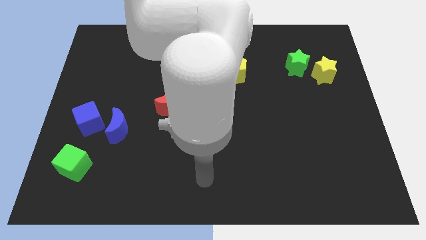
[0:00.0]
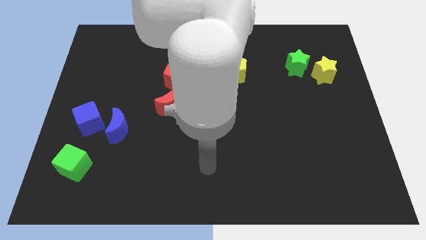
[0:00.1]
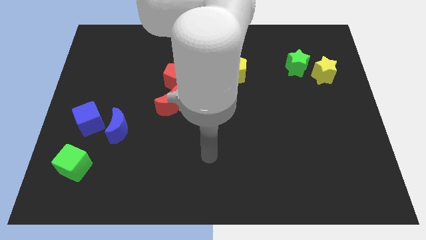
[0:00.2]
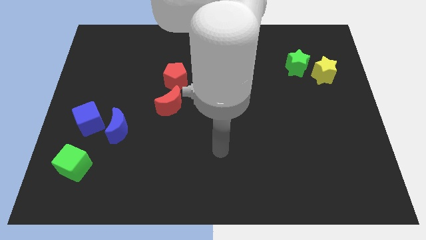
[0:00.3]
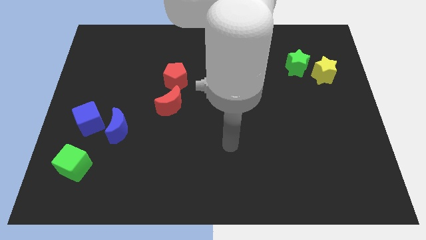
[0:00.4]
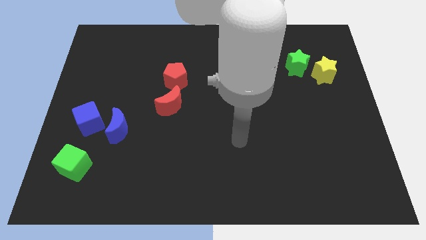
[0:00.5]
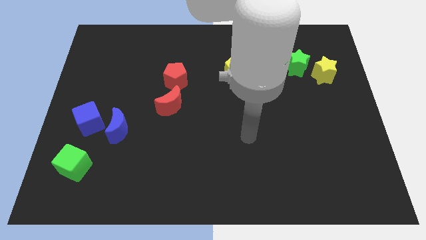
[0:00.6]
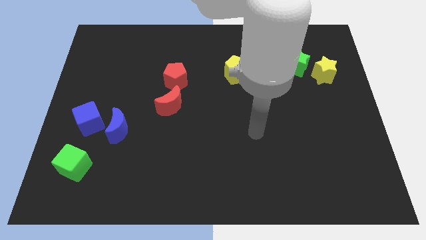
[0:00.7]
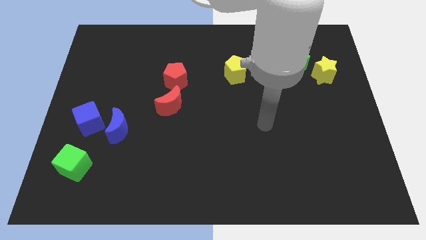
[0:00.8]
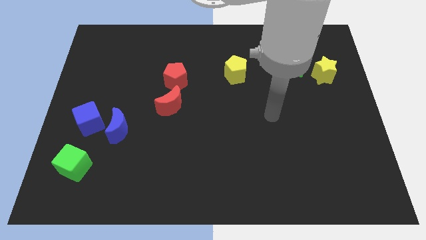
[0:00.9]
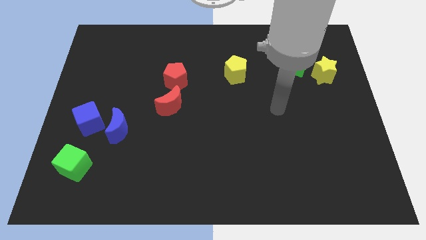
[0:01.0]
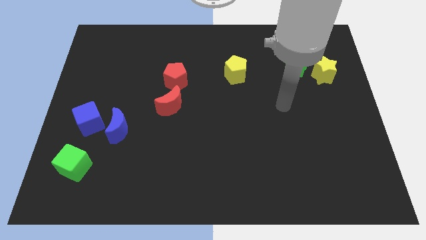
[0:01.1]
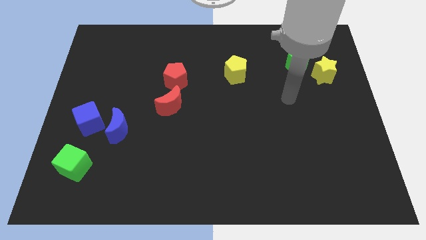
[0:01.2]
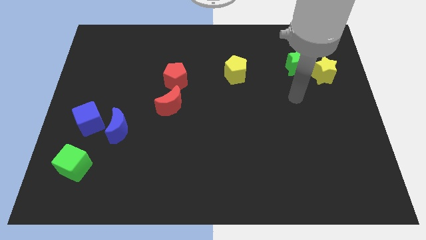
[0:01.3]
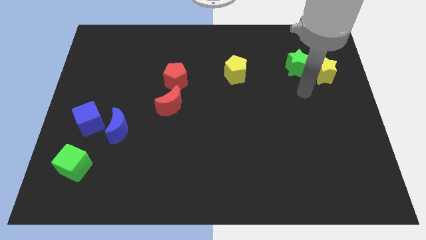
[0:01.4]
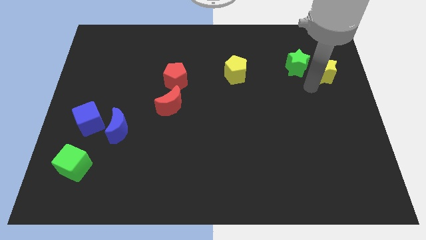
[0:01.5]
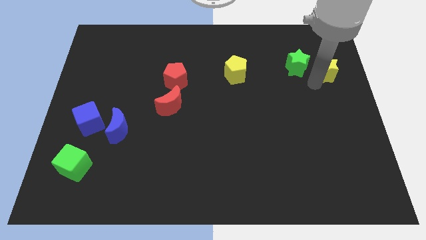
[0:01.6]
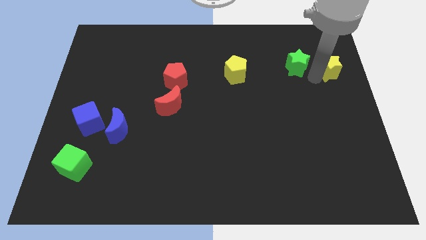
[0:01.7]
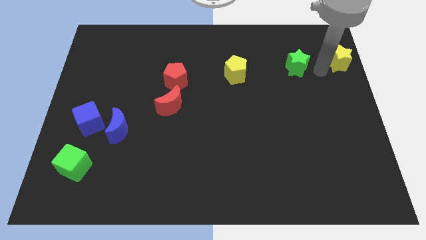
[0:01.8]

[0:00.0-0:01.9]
separate the green star from the yellow star

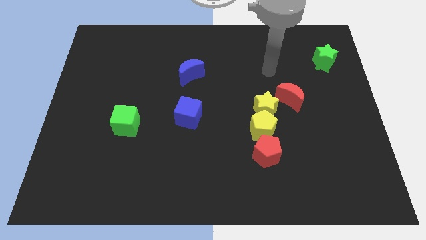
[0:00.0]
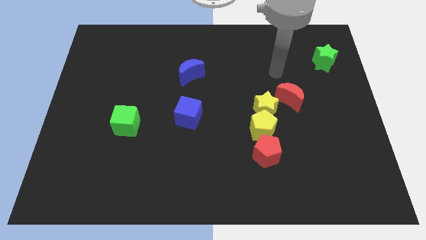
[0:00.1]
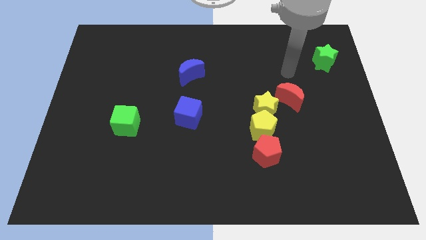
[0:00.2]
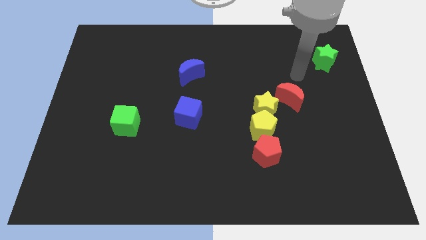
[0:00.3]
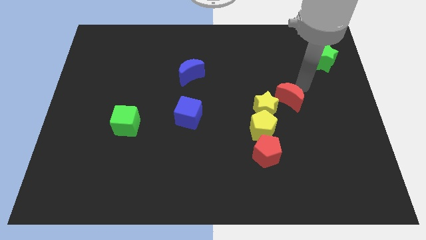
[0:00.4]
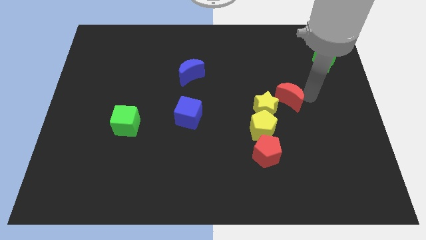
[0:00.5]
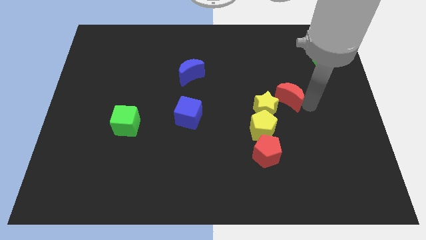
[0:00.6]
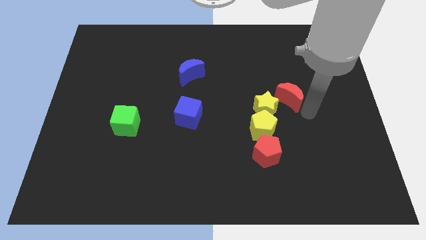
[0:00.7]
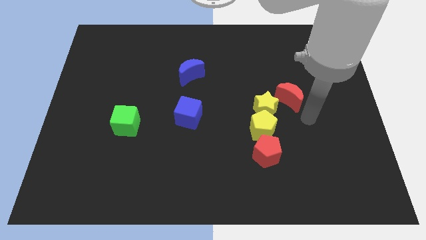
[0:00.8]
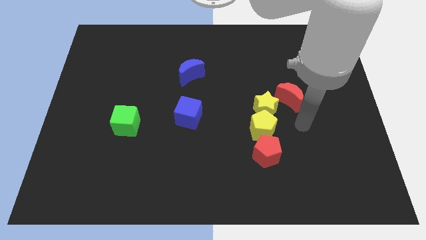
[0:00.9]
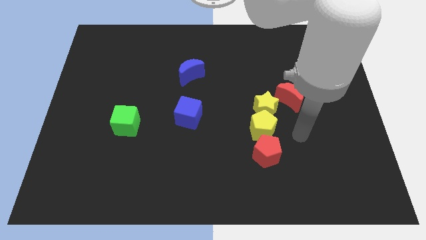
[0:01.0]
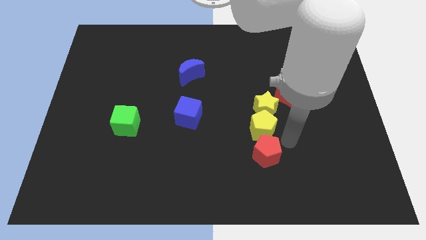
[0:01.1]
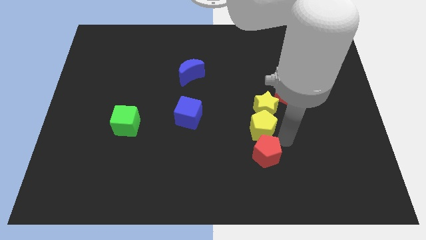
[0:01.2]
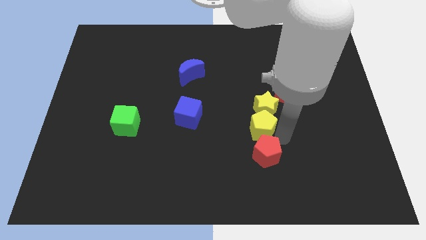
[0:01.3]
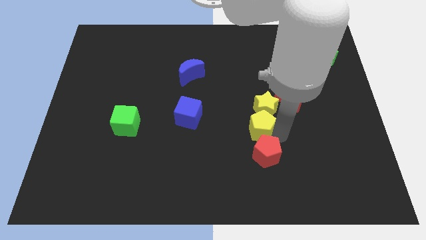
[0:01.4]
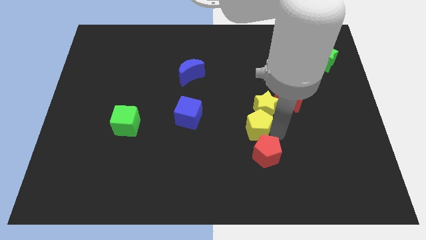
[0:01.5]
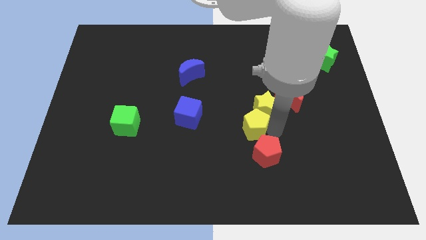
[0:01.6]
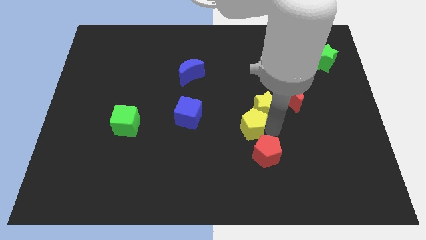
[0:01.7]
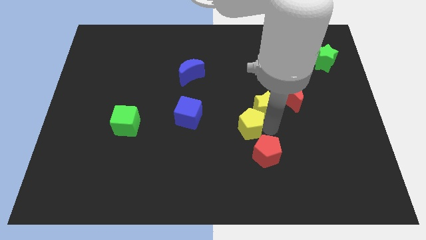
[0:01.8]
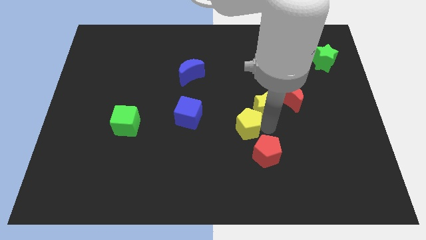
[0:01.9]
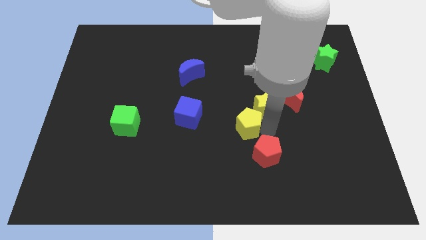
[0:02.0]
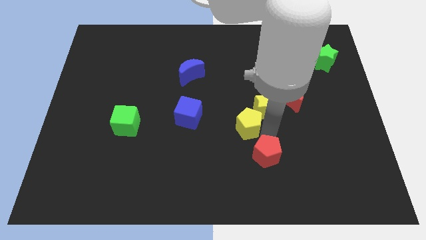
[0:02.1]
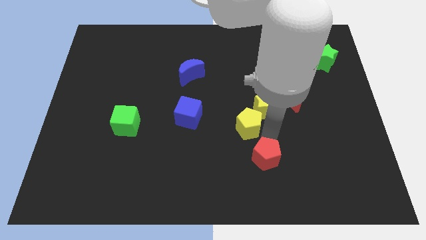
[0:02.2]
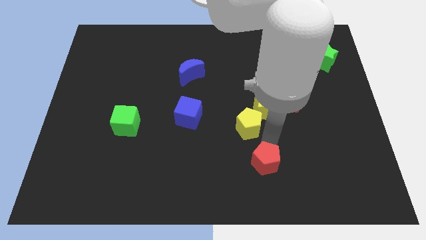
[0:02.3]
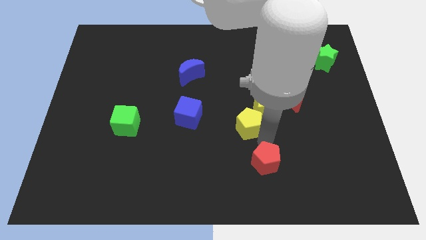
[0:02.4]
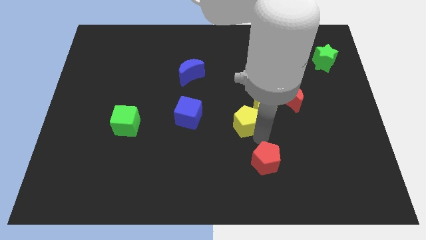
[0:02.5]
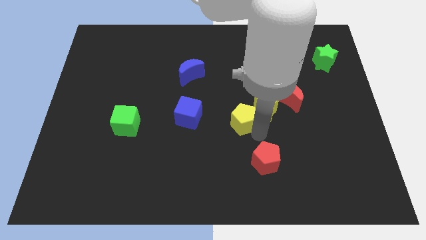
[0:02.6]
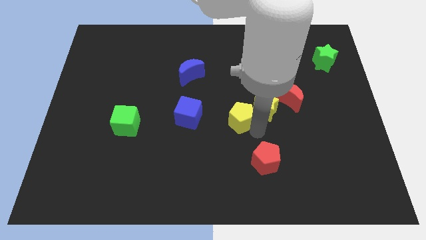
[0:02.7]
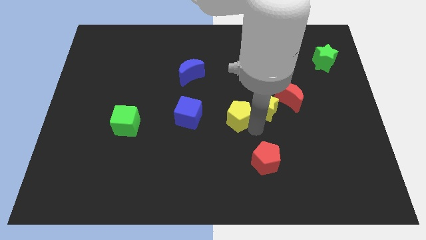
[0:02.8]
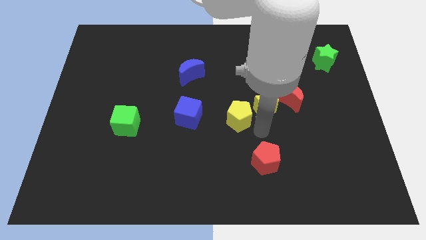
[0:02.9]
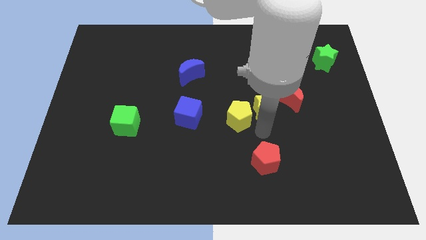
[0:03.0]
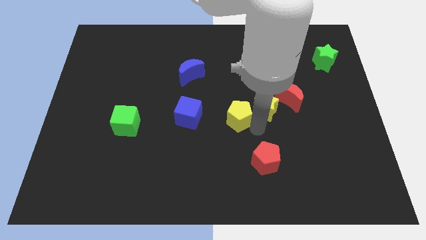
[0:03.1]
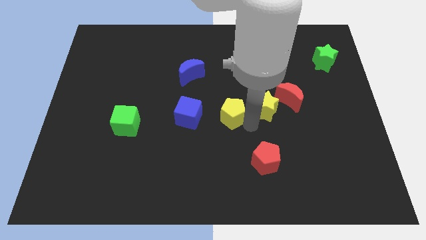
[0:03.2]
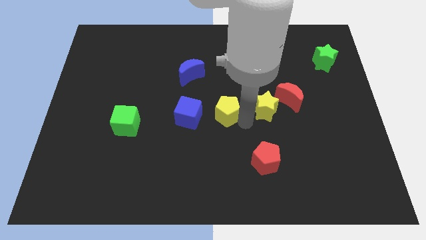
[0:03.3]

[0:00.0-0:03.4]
pull the yellow pentagon apart from the yellow star and red pentagon

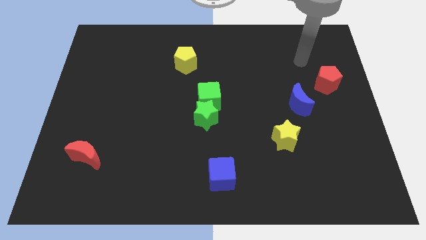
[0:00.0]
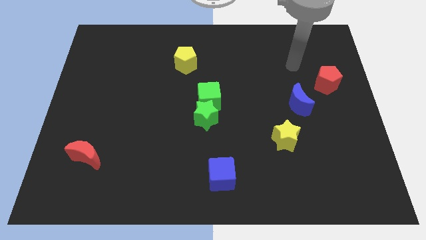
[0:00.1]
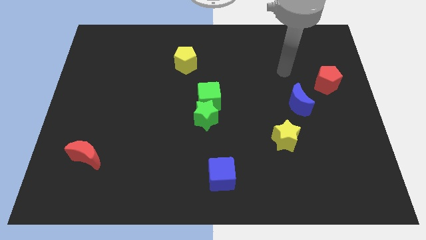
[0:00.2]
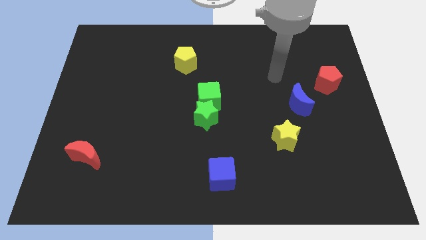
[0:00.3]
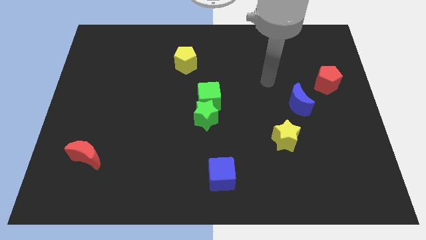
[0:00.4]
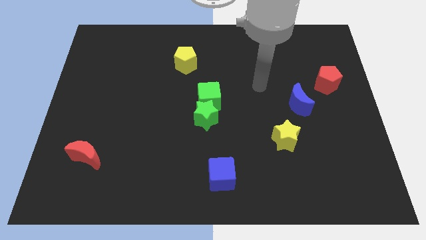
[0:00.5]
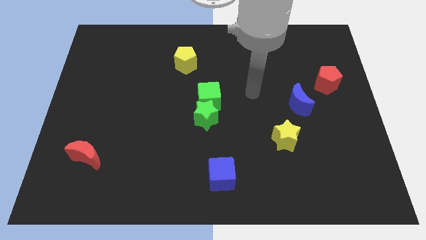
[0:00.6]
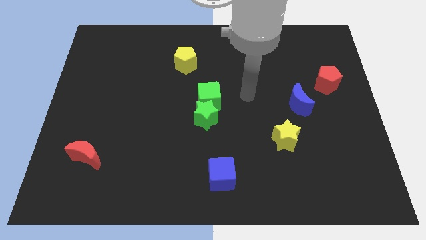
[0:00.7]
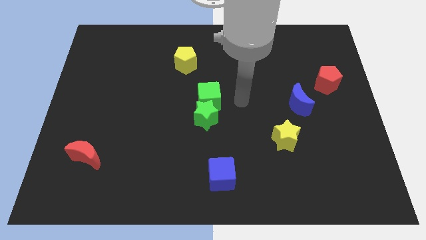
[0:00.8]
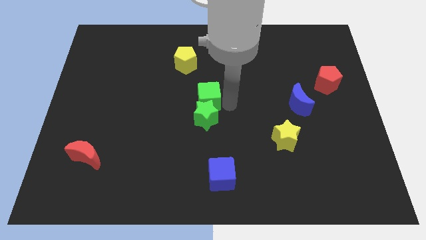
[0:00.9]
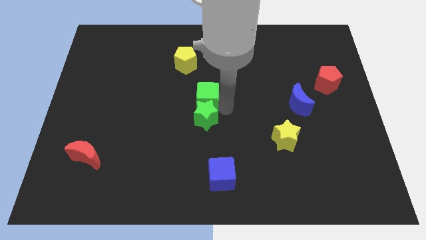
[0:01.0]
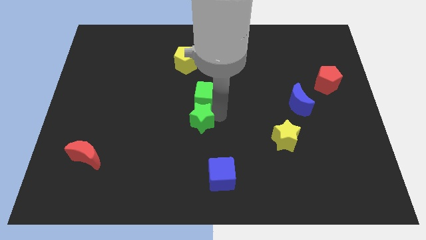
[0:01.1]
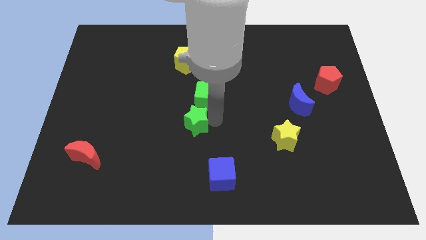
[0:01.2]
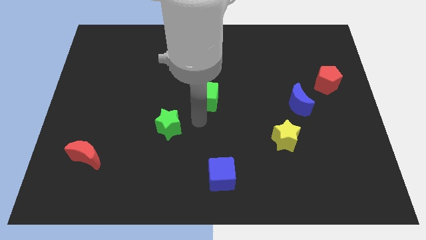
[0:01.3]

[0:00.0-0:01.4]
separate the green cube from the green star

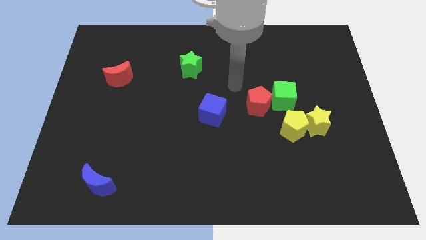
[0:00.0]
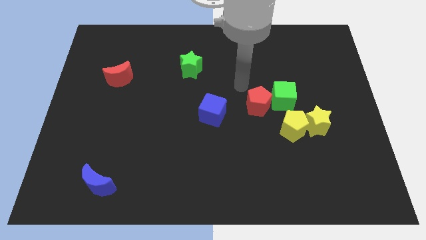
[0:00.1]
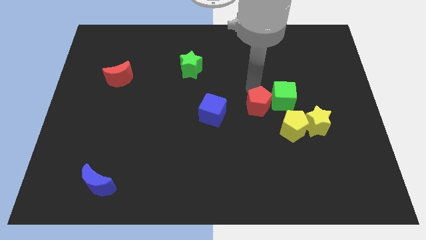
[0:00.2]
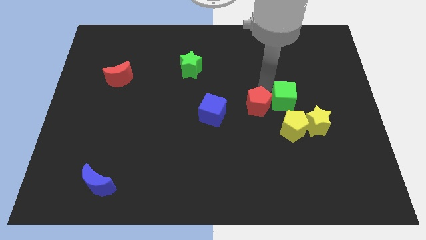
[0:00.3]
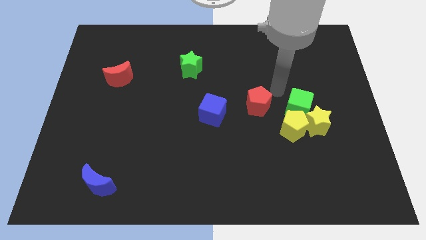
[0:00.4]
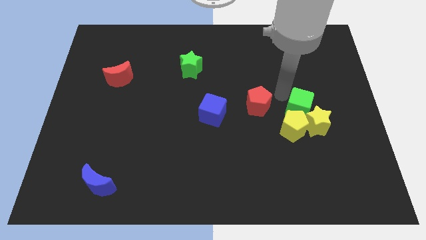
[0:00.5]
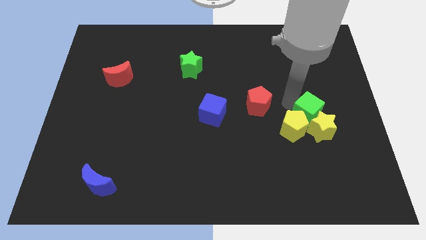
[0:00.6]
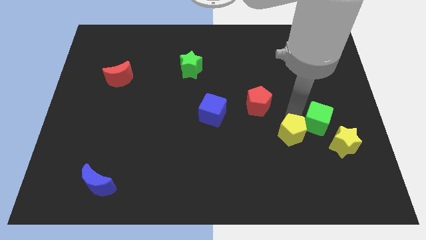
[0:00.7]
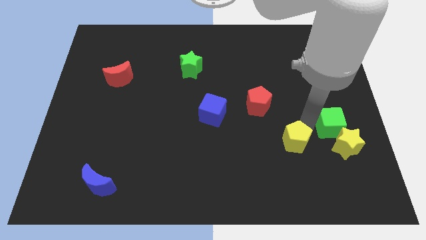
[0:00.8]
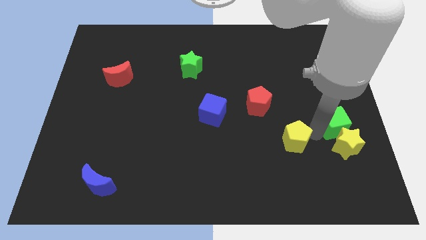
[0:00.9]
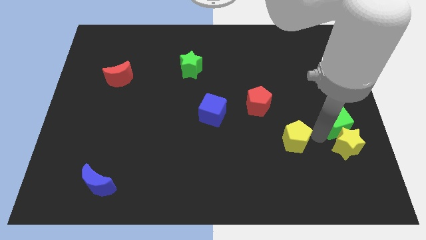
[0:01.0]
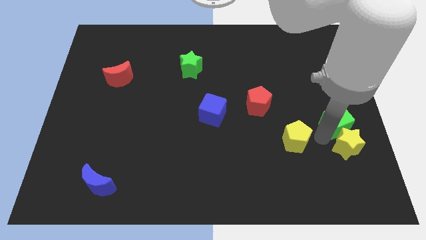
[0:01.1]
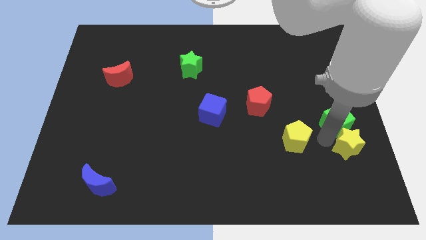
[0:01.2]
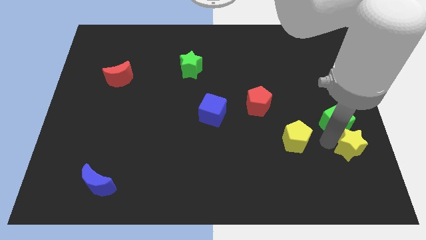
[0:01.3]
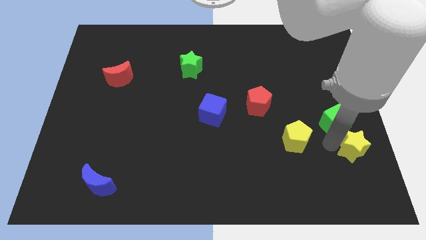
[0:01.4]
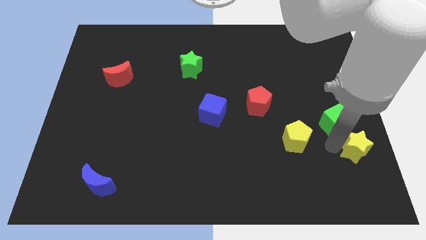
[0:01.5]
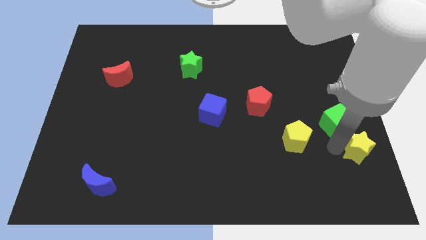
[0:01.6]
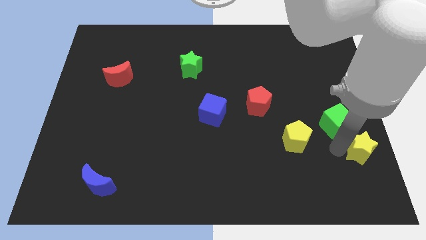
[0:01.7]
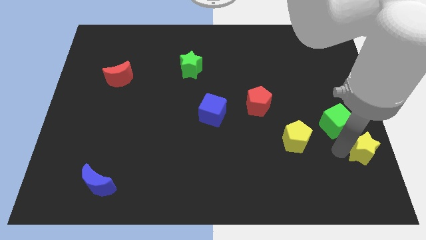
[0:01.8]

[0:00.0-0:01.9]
separate the yellow star from the yellow pentagon and green cube

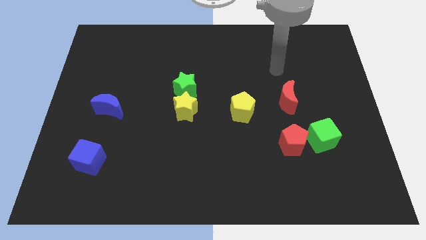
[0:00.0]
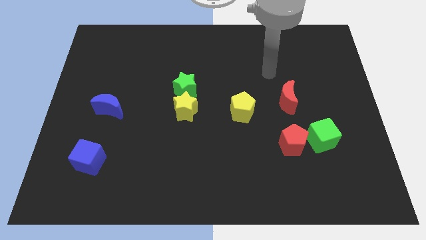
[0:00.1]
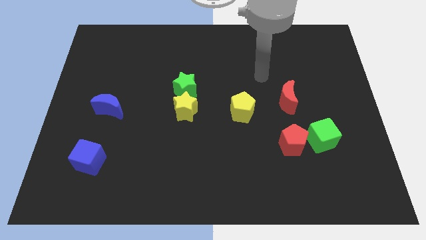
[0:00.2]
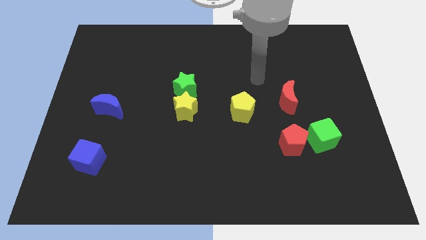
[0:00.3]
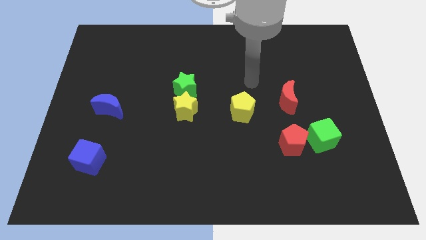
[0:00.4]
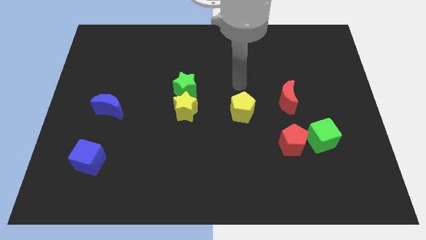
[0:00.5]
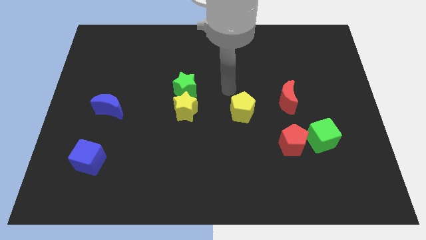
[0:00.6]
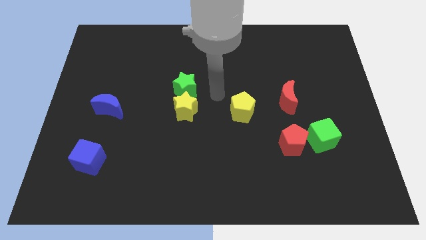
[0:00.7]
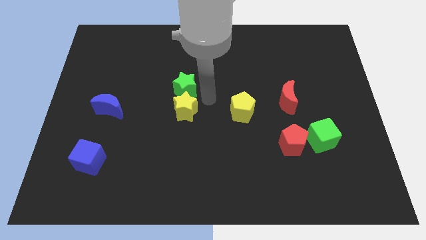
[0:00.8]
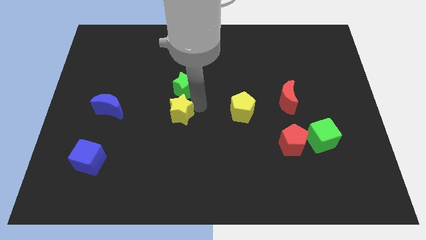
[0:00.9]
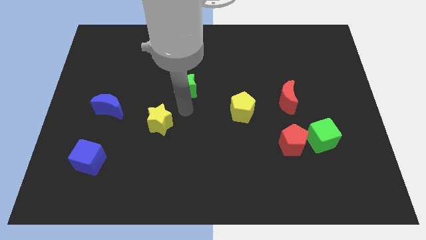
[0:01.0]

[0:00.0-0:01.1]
move the green star away from the yellow star
